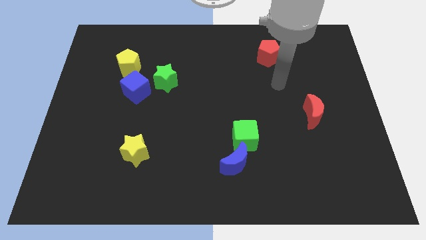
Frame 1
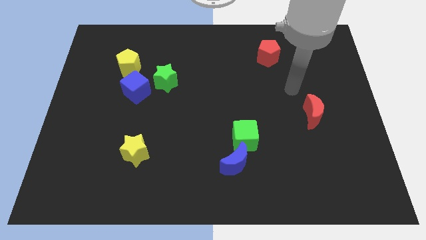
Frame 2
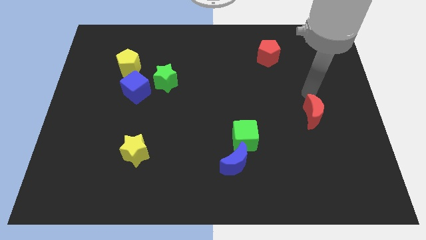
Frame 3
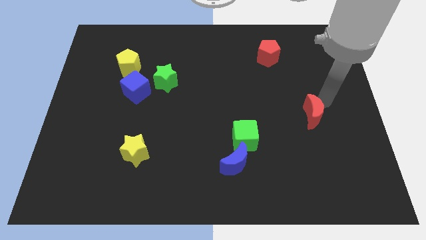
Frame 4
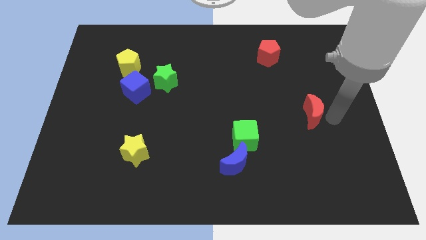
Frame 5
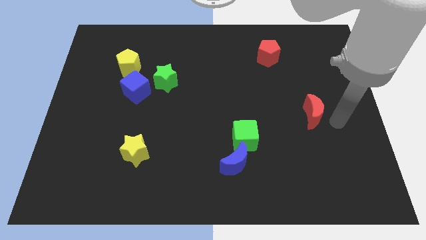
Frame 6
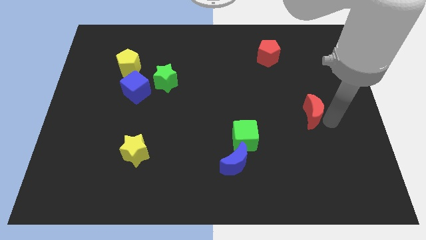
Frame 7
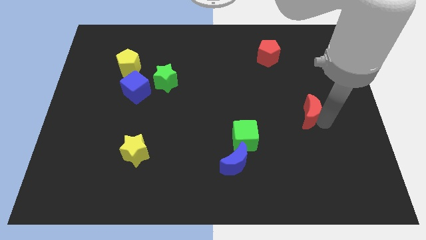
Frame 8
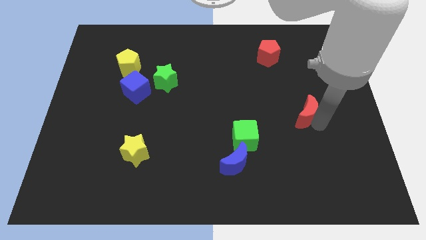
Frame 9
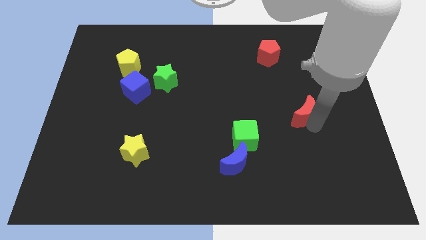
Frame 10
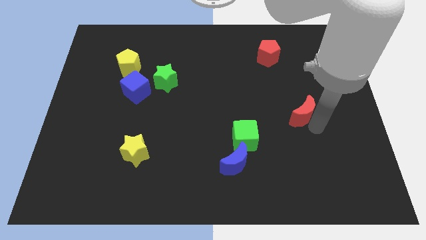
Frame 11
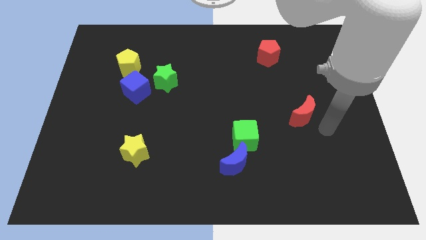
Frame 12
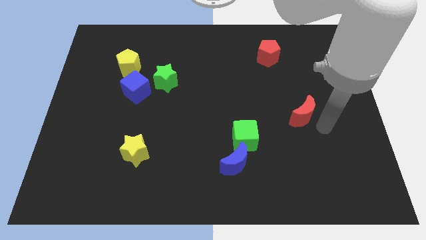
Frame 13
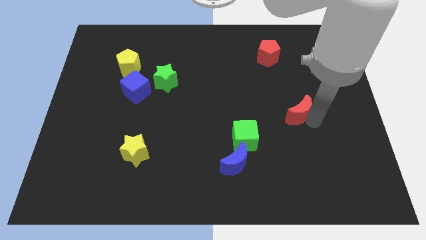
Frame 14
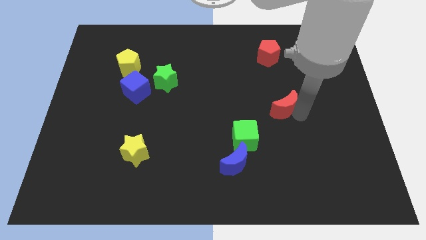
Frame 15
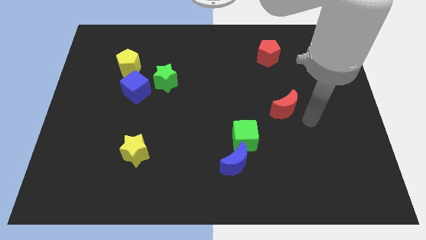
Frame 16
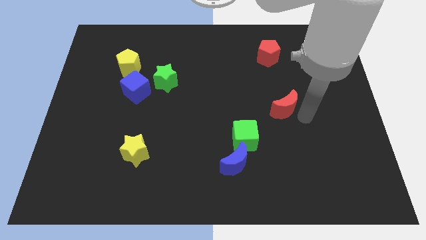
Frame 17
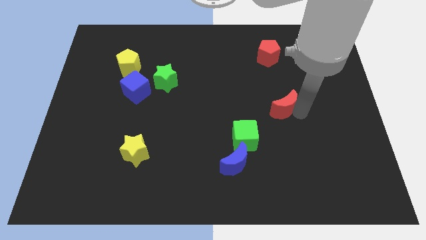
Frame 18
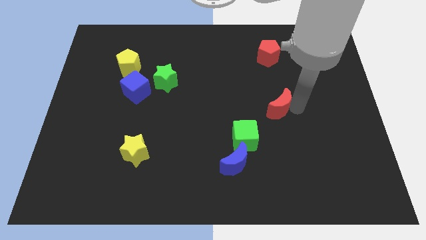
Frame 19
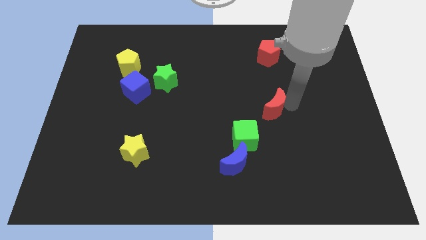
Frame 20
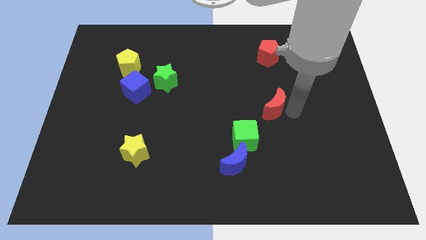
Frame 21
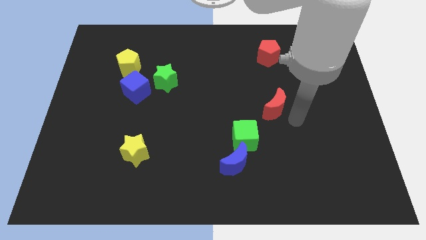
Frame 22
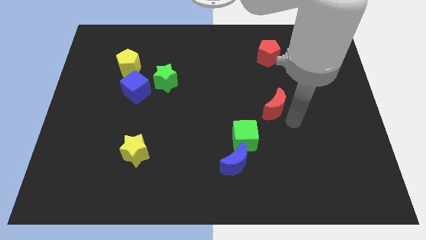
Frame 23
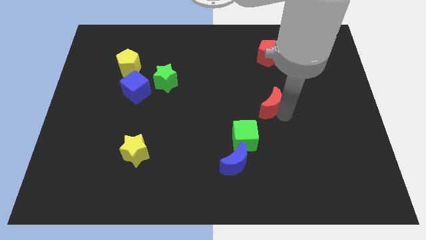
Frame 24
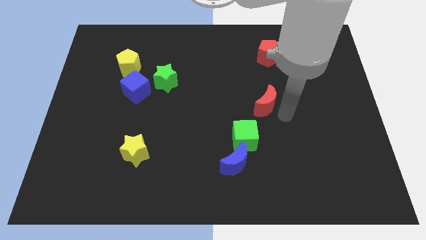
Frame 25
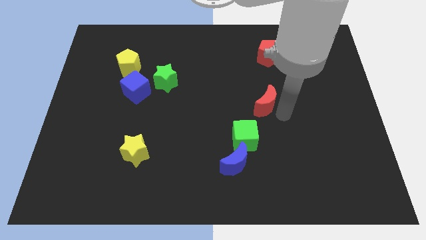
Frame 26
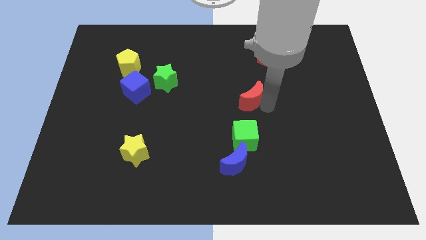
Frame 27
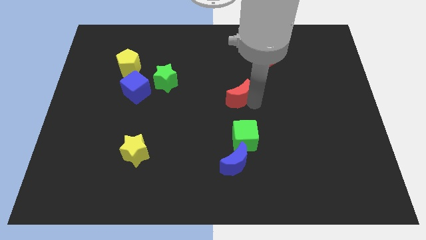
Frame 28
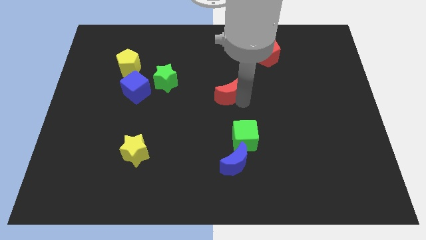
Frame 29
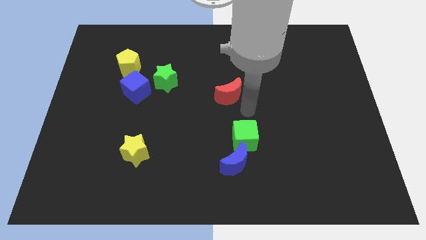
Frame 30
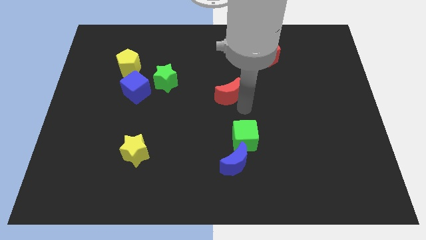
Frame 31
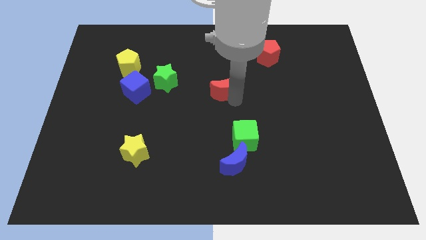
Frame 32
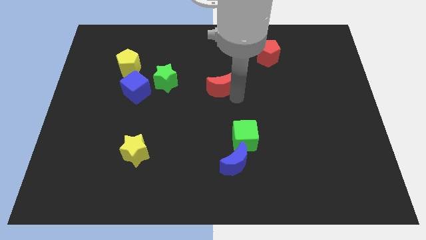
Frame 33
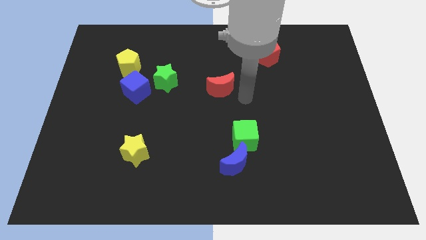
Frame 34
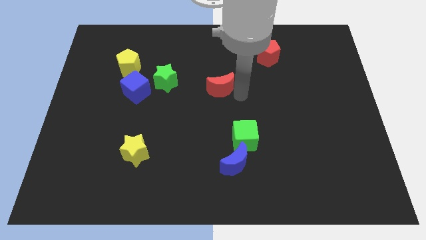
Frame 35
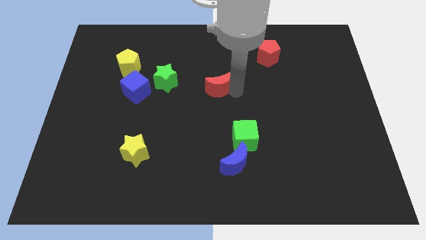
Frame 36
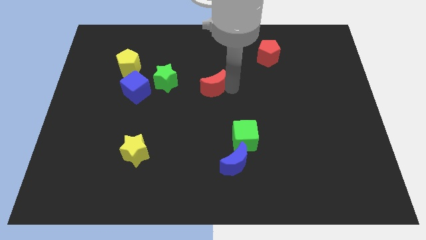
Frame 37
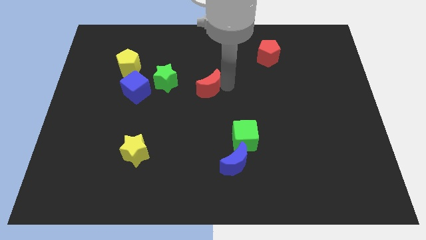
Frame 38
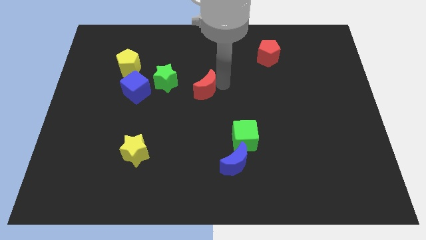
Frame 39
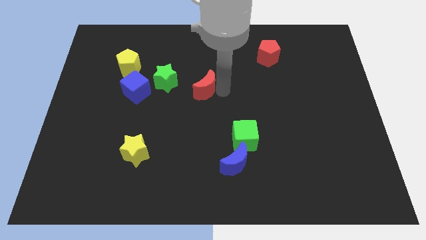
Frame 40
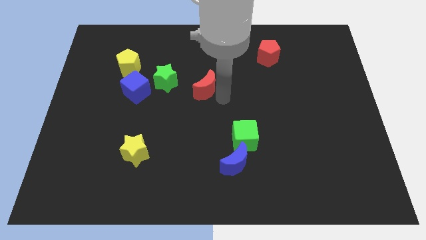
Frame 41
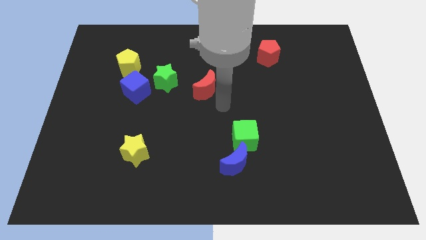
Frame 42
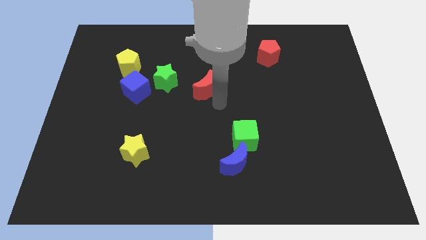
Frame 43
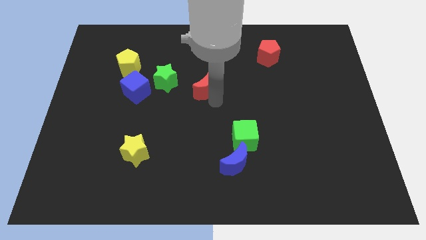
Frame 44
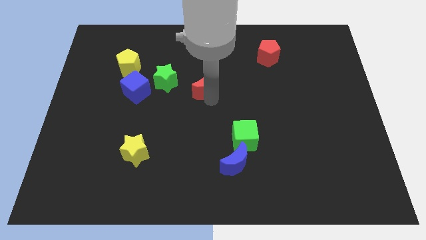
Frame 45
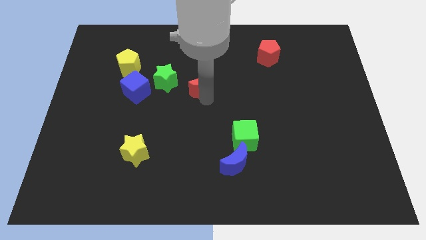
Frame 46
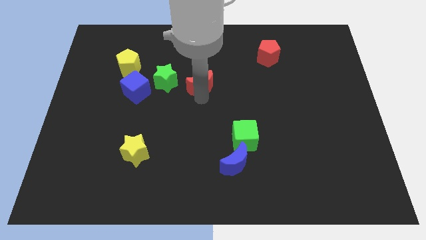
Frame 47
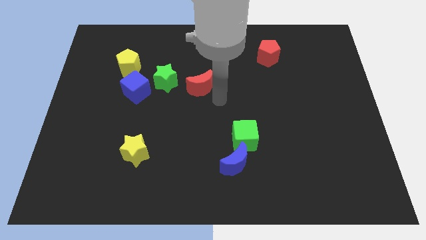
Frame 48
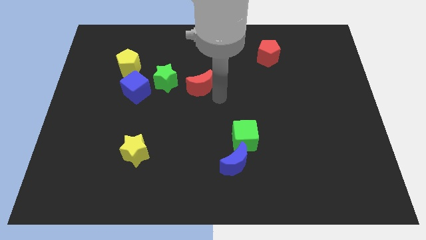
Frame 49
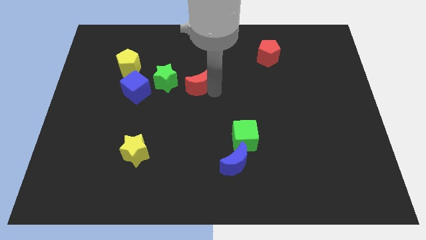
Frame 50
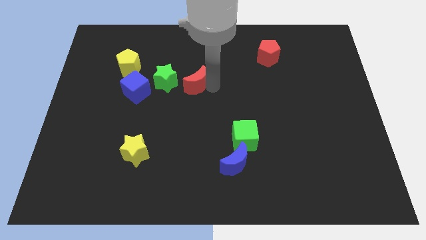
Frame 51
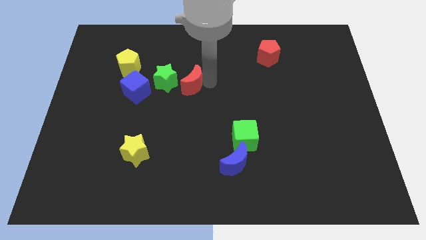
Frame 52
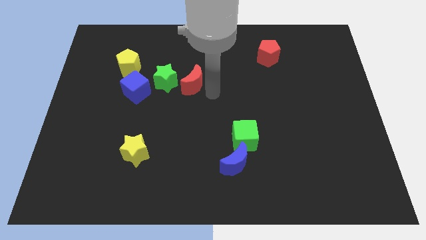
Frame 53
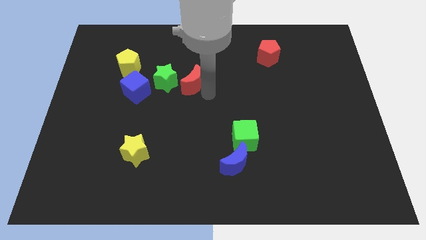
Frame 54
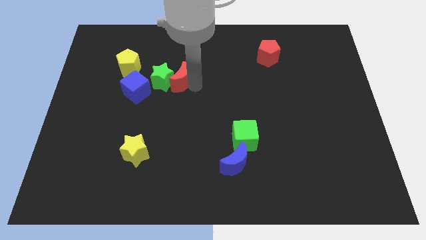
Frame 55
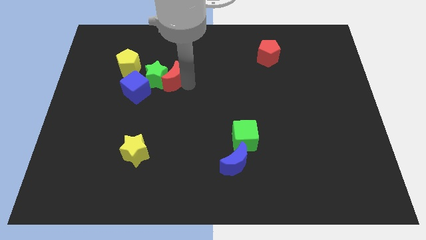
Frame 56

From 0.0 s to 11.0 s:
move the red moon to the right side of the yellow pentagon

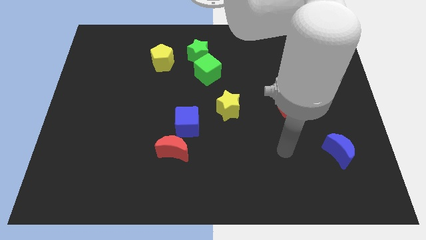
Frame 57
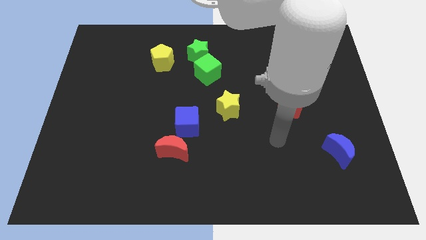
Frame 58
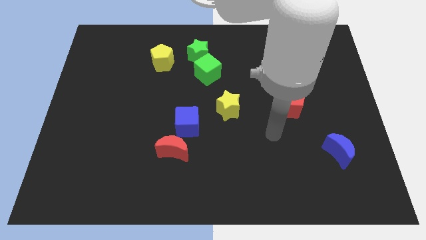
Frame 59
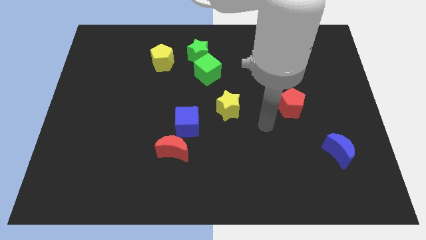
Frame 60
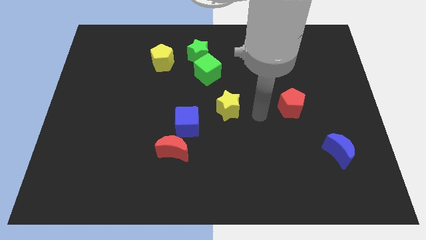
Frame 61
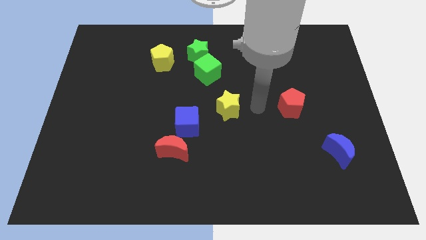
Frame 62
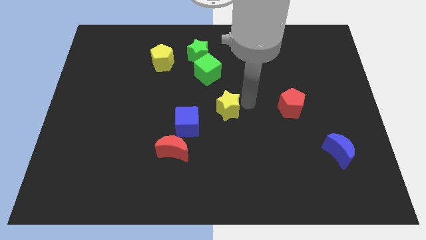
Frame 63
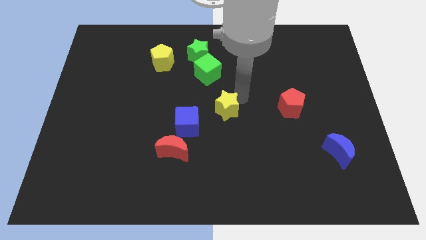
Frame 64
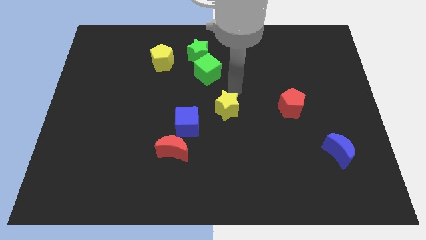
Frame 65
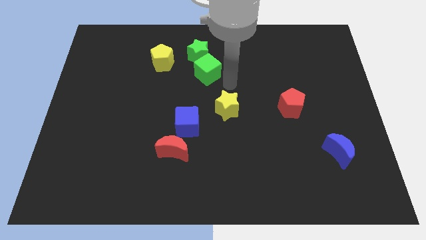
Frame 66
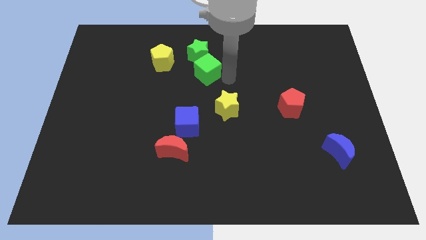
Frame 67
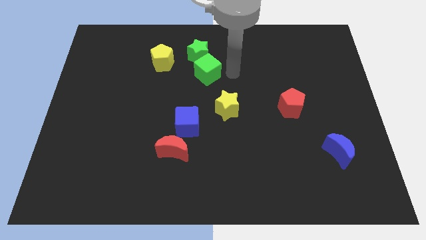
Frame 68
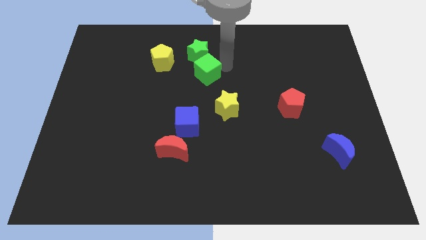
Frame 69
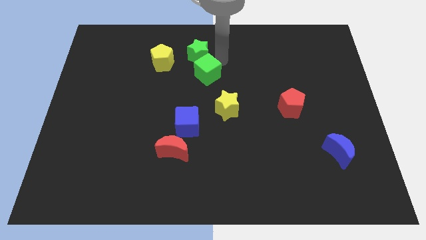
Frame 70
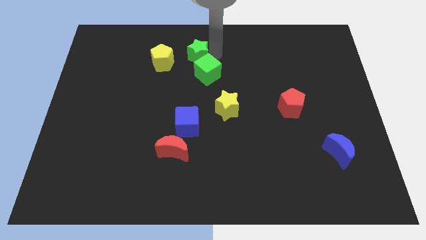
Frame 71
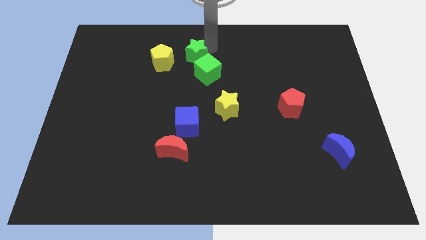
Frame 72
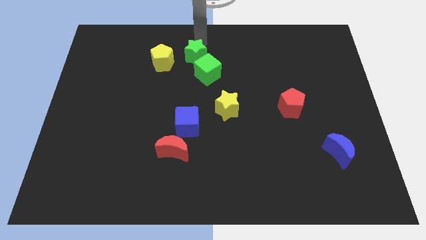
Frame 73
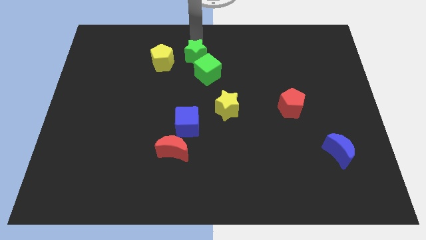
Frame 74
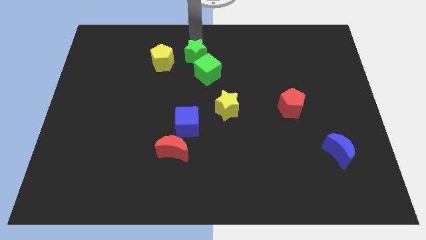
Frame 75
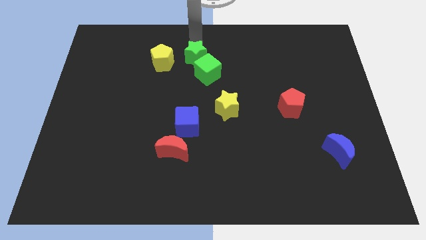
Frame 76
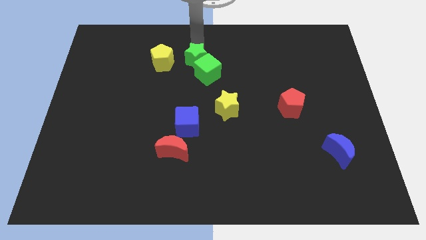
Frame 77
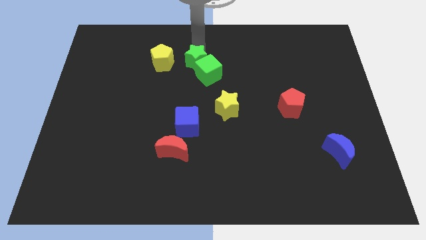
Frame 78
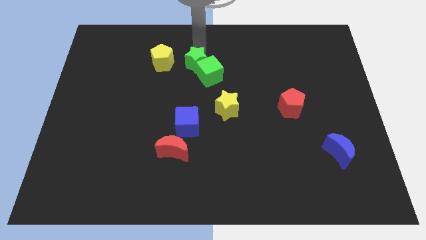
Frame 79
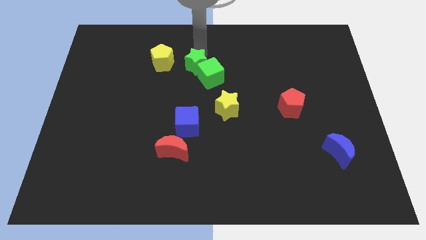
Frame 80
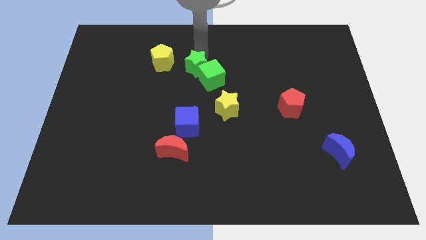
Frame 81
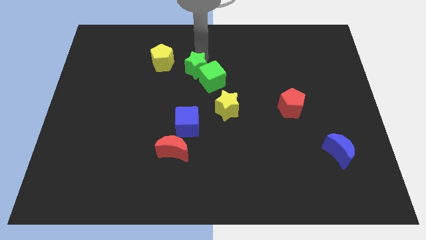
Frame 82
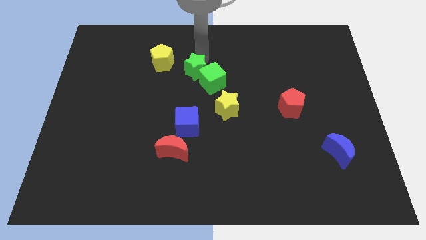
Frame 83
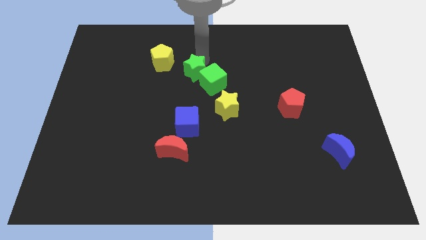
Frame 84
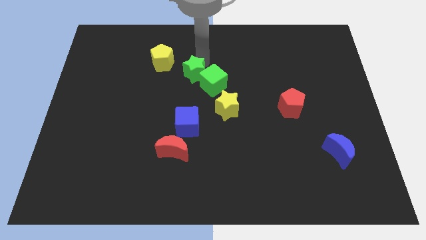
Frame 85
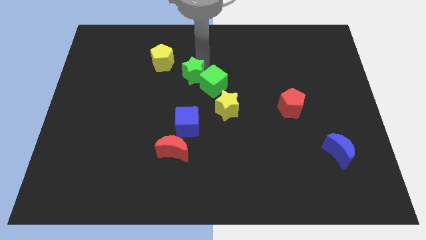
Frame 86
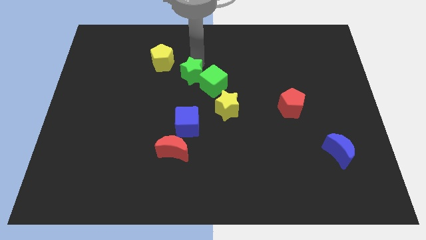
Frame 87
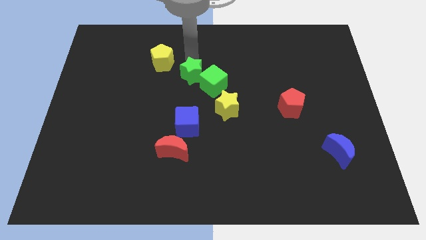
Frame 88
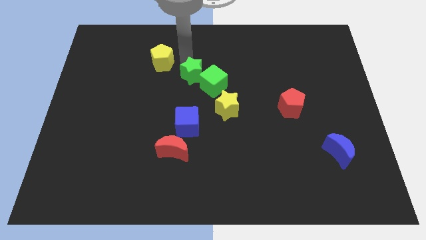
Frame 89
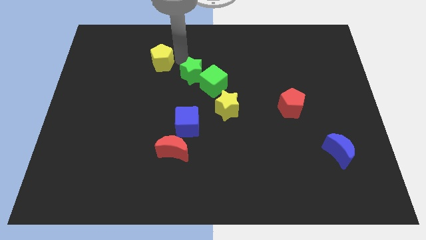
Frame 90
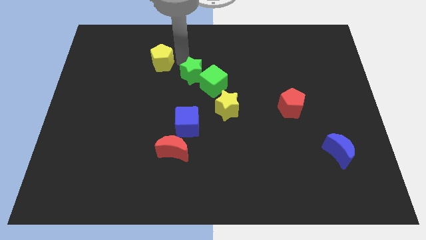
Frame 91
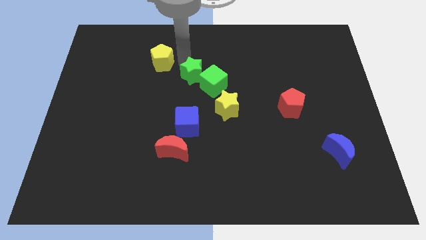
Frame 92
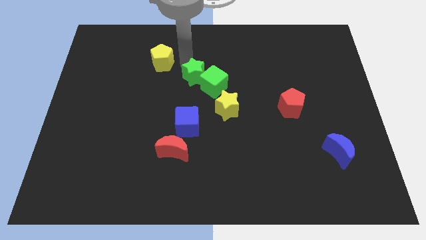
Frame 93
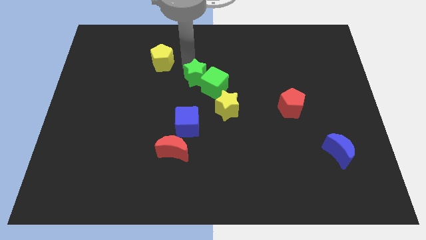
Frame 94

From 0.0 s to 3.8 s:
put the green star to the top left of the yellow star
